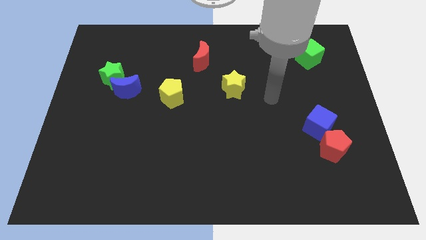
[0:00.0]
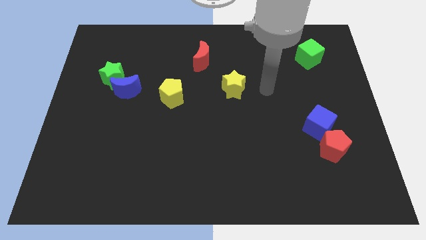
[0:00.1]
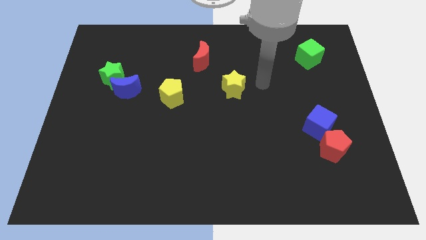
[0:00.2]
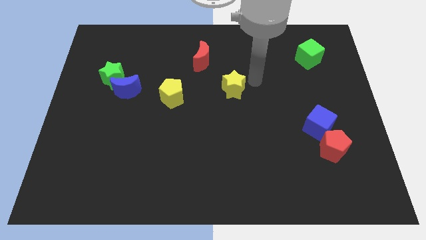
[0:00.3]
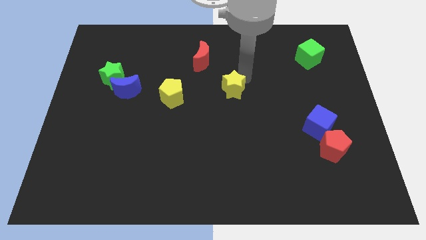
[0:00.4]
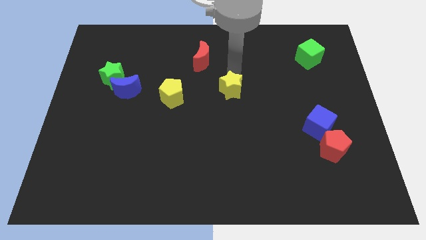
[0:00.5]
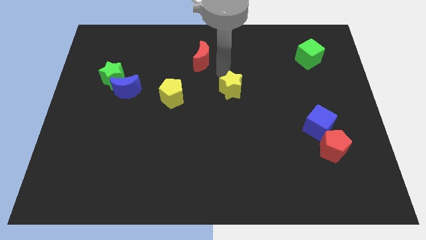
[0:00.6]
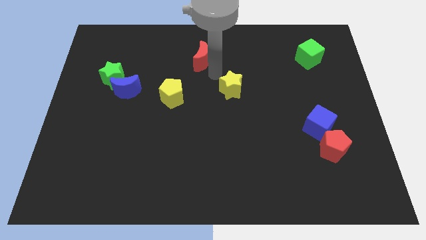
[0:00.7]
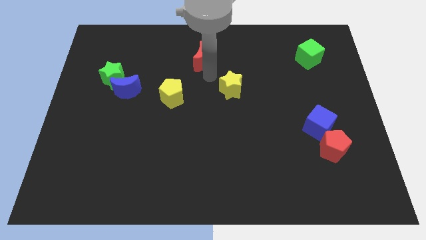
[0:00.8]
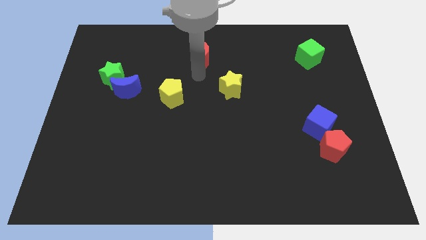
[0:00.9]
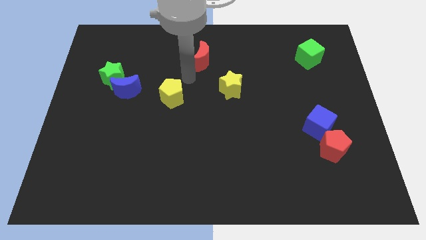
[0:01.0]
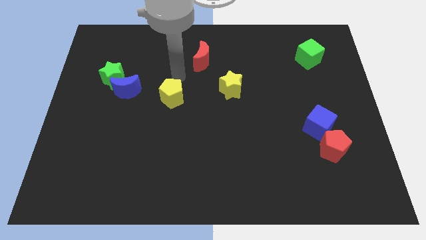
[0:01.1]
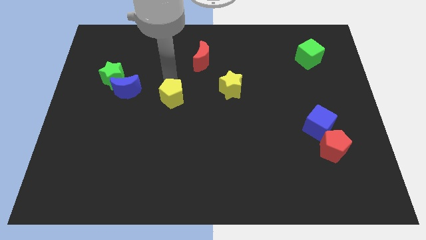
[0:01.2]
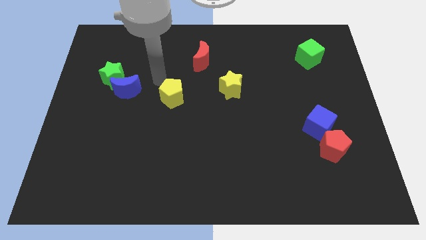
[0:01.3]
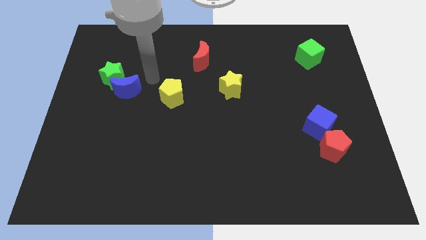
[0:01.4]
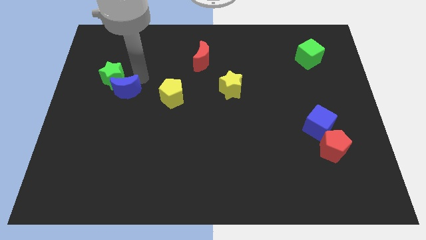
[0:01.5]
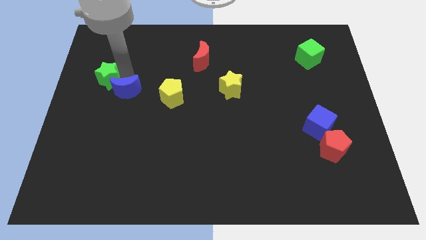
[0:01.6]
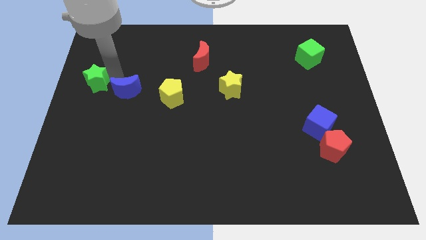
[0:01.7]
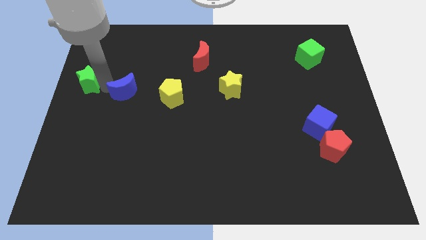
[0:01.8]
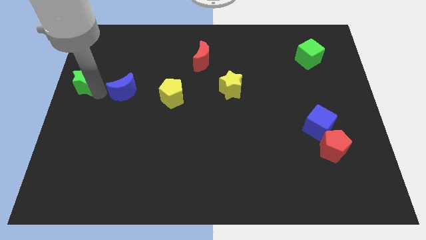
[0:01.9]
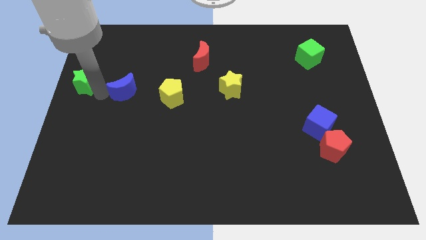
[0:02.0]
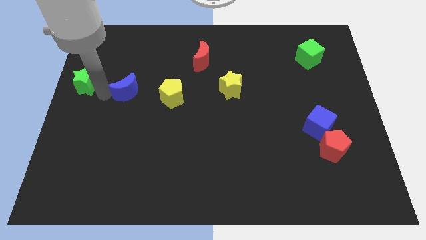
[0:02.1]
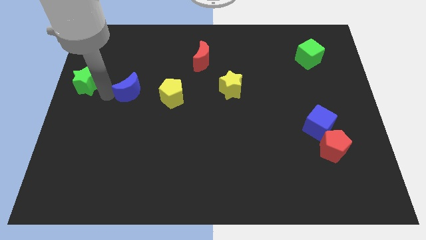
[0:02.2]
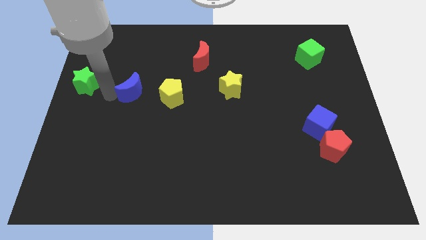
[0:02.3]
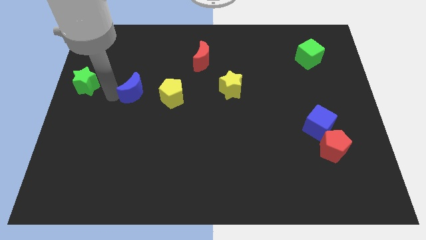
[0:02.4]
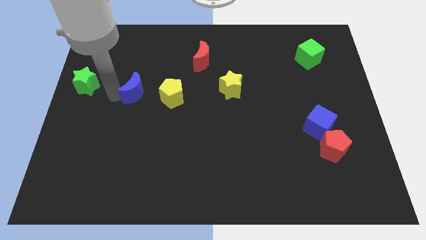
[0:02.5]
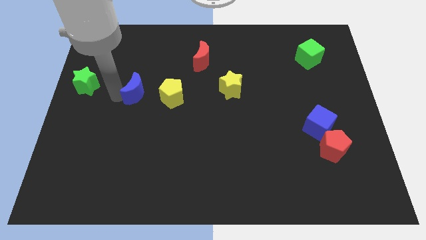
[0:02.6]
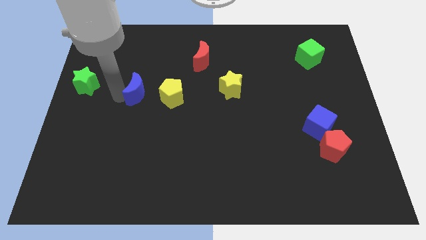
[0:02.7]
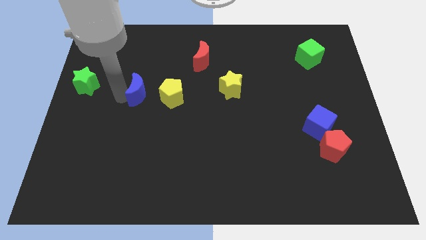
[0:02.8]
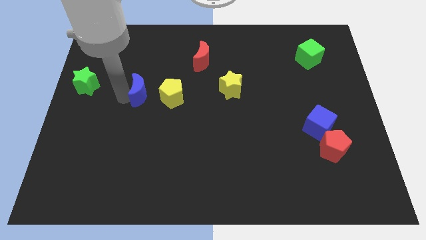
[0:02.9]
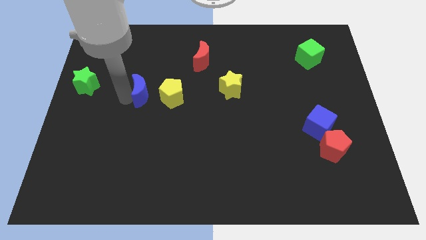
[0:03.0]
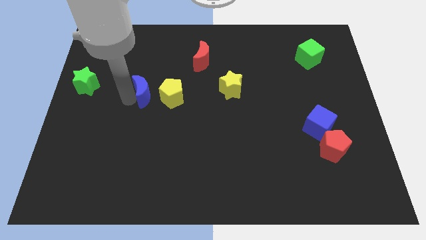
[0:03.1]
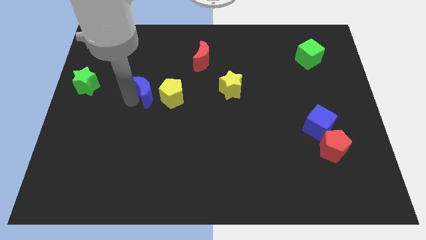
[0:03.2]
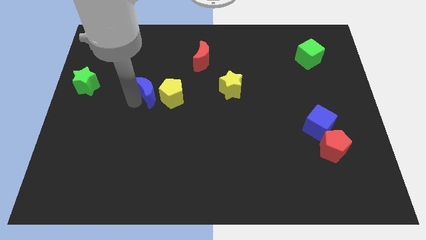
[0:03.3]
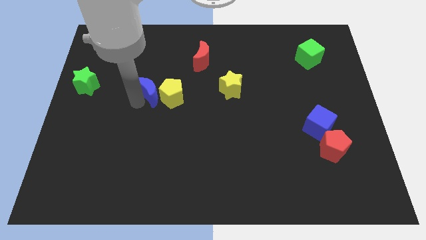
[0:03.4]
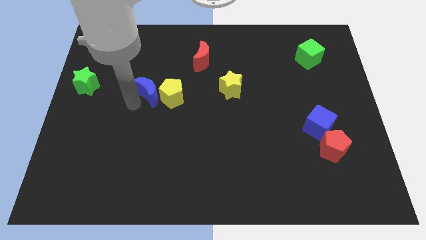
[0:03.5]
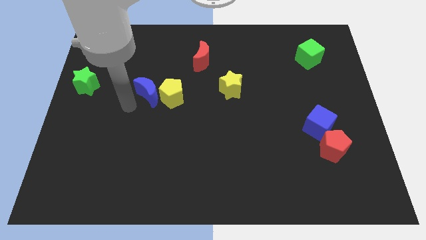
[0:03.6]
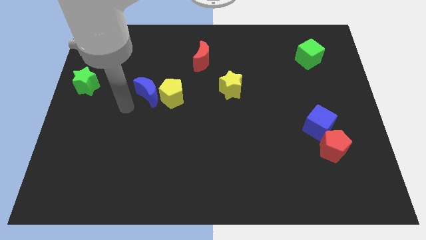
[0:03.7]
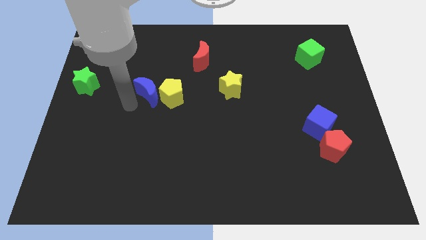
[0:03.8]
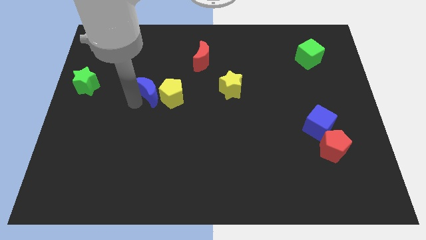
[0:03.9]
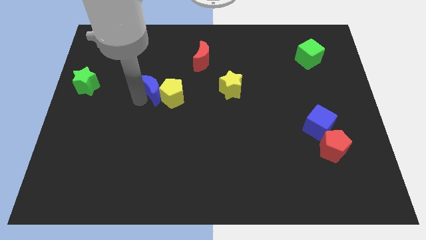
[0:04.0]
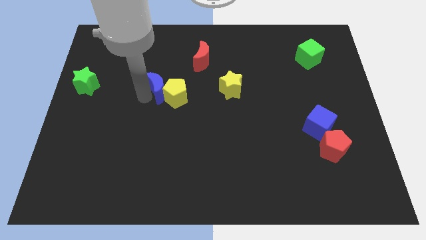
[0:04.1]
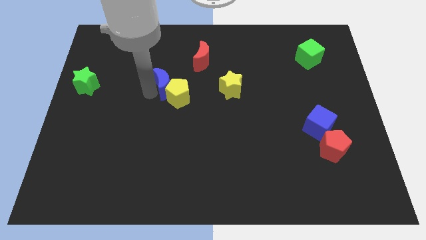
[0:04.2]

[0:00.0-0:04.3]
push the blue moon just left of the yellow star

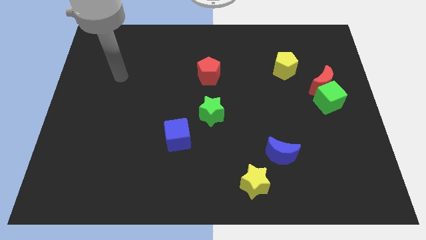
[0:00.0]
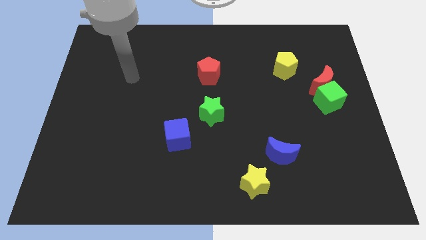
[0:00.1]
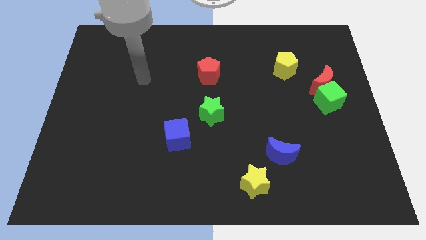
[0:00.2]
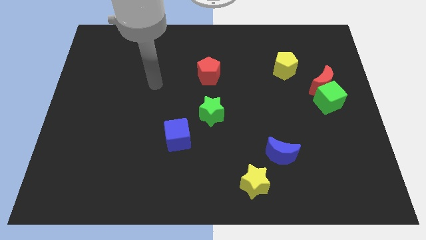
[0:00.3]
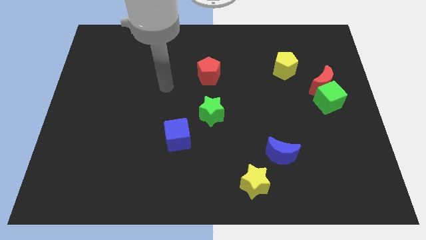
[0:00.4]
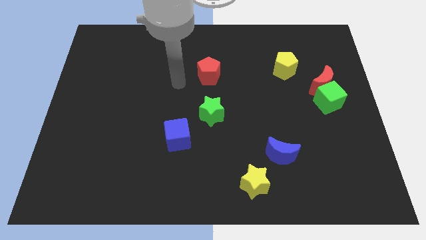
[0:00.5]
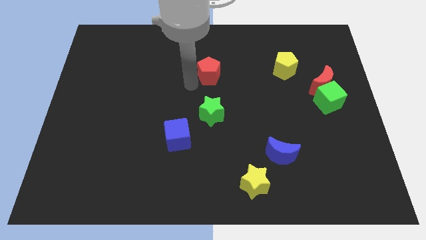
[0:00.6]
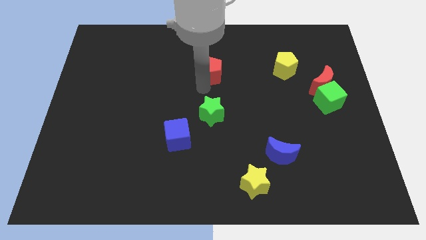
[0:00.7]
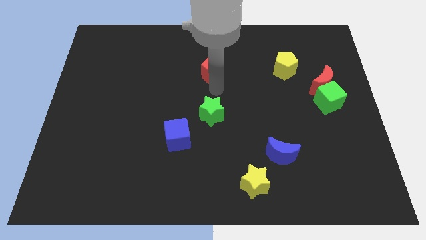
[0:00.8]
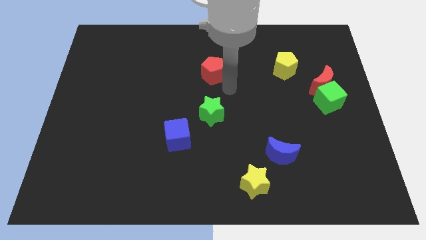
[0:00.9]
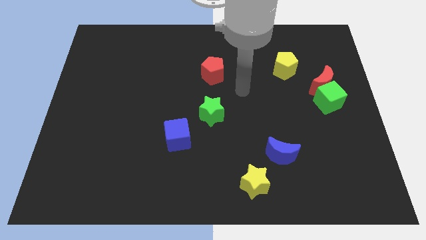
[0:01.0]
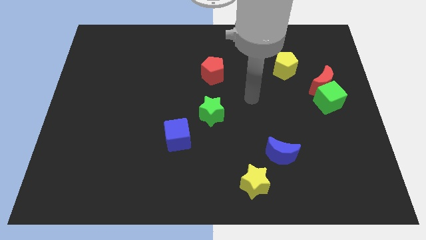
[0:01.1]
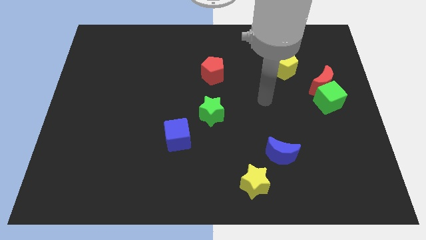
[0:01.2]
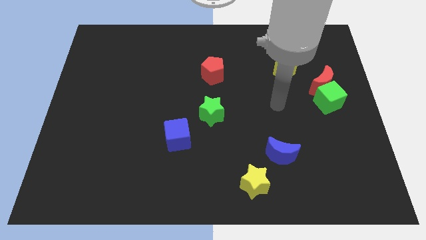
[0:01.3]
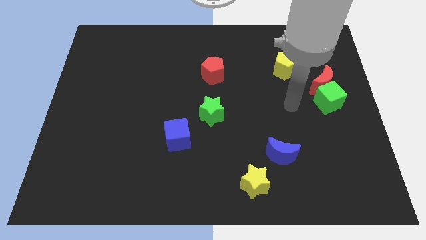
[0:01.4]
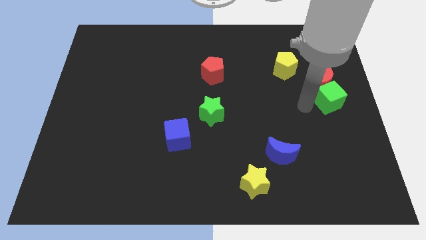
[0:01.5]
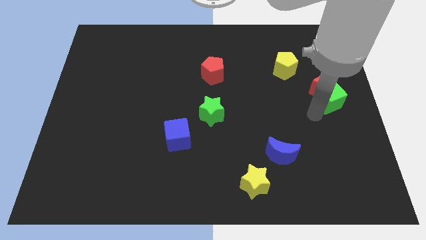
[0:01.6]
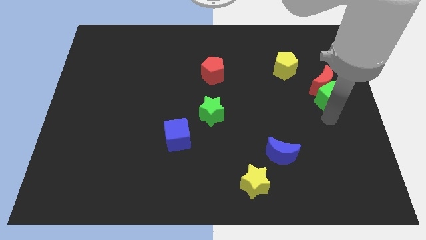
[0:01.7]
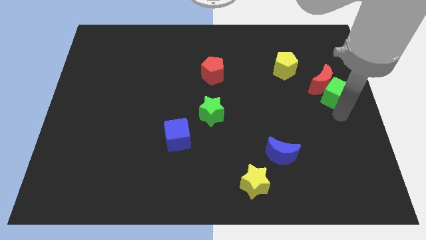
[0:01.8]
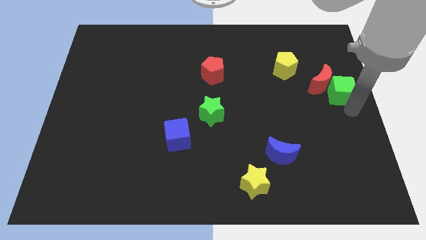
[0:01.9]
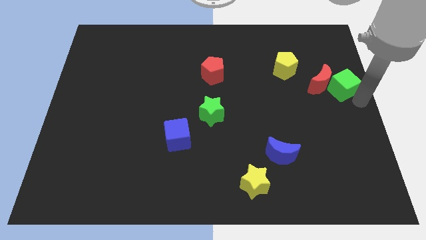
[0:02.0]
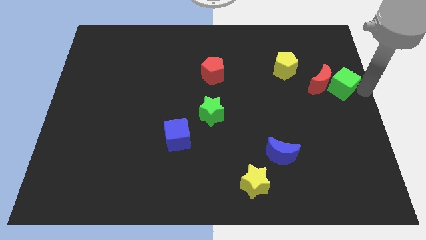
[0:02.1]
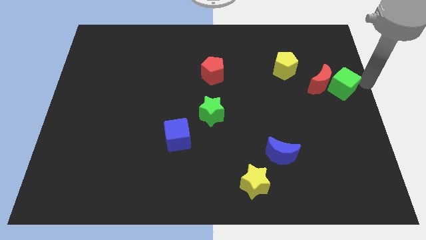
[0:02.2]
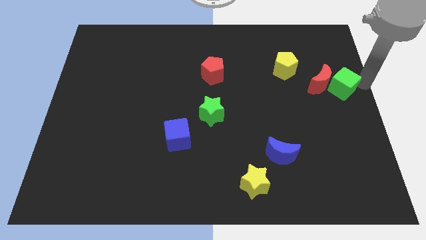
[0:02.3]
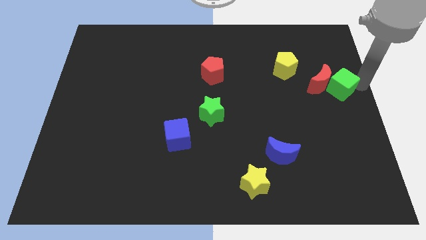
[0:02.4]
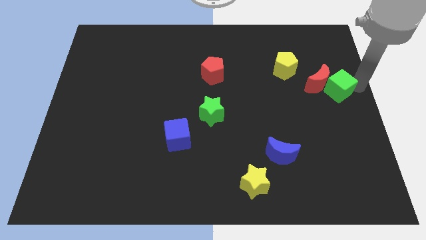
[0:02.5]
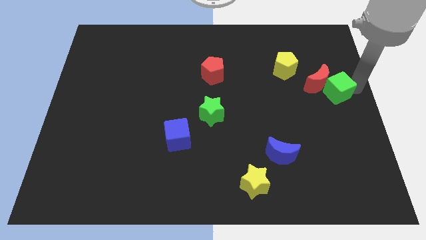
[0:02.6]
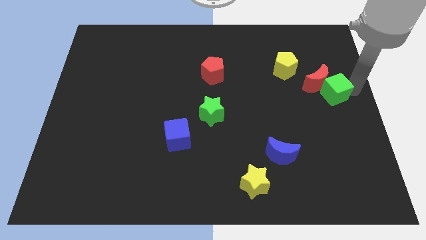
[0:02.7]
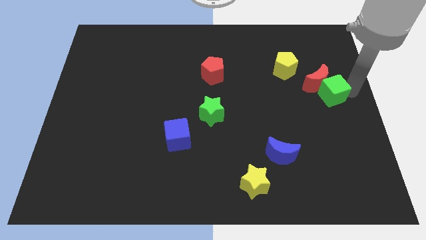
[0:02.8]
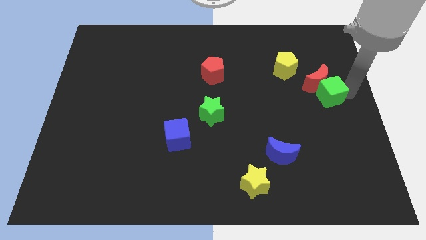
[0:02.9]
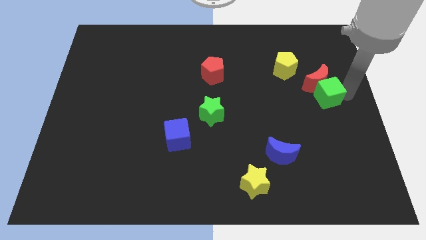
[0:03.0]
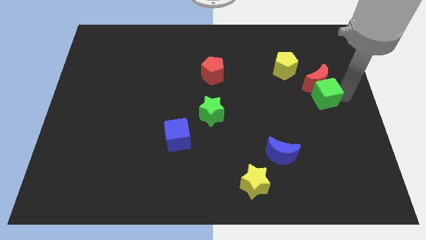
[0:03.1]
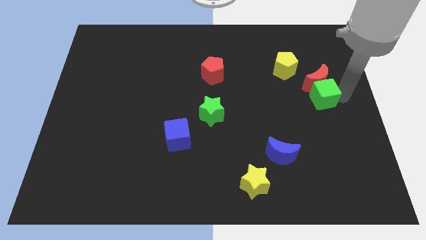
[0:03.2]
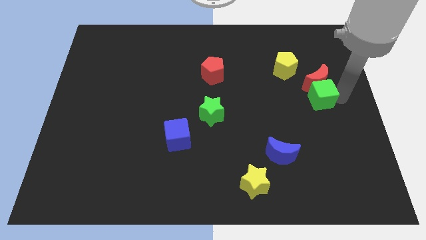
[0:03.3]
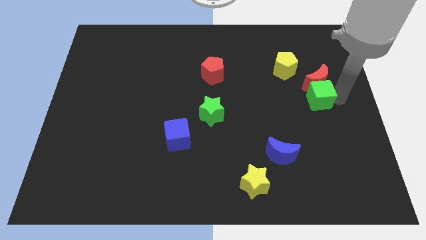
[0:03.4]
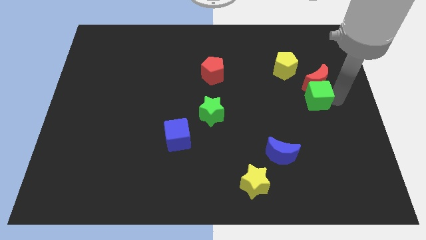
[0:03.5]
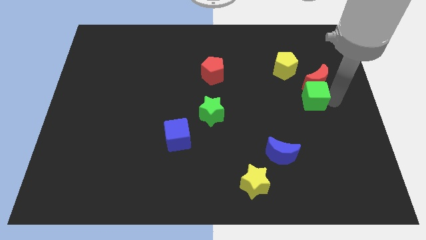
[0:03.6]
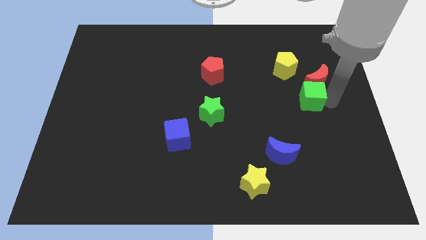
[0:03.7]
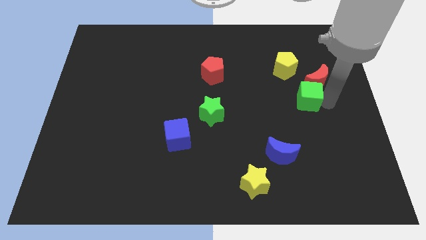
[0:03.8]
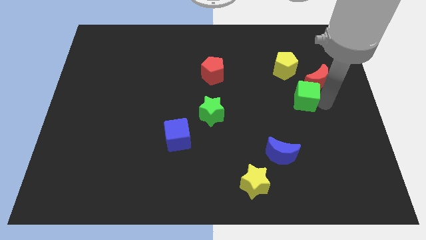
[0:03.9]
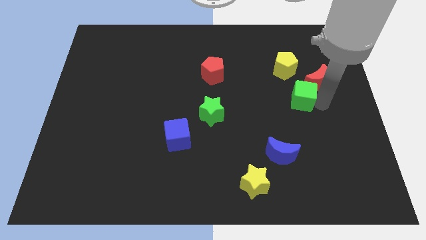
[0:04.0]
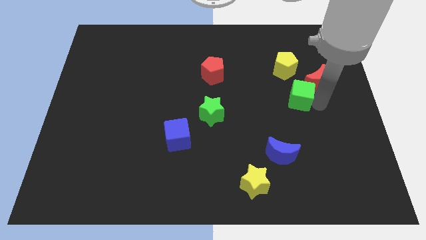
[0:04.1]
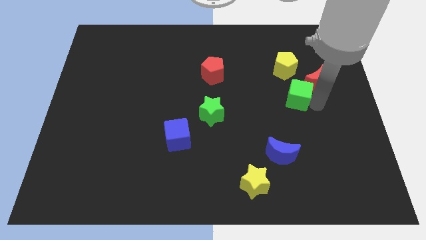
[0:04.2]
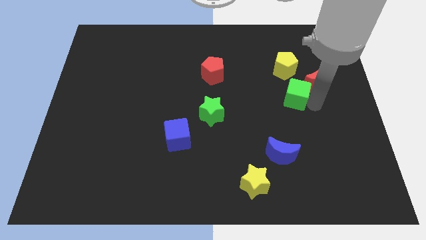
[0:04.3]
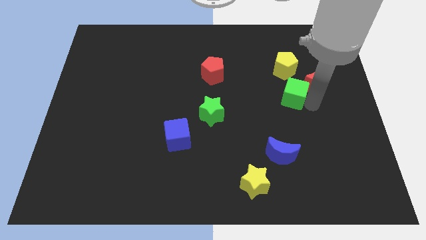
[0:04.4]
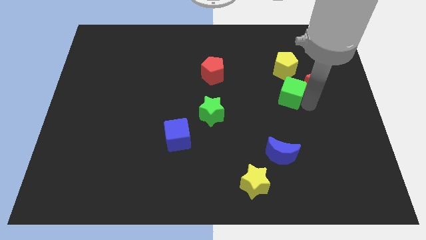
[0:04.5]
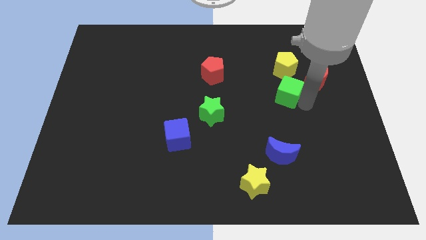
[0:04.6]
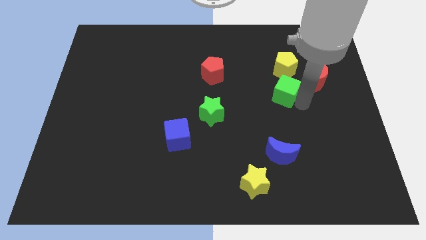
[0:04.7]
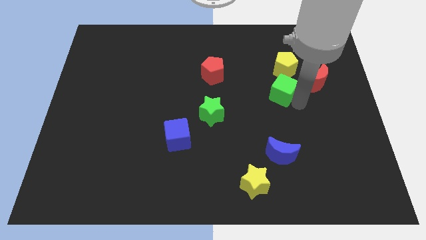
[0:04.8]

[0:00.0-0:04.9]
push the green cube diagonally down and to the left of the yellow pentagon
